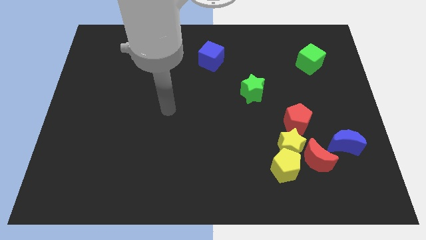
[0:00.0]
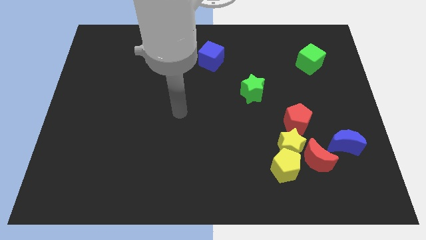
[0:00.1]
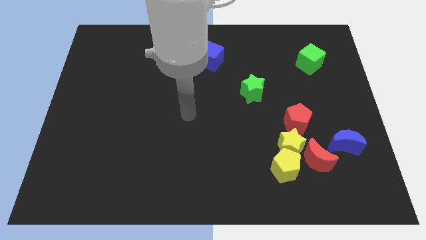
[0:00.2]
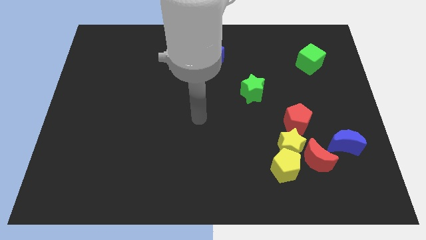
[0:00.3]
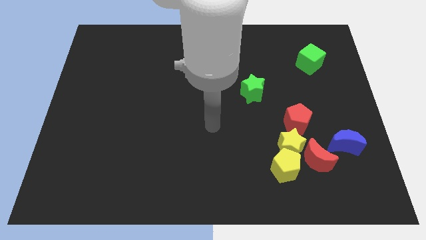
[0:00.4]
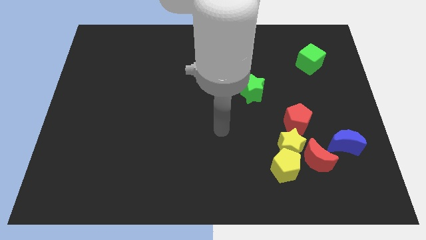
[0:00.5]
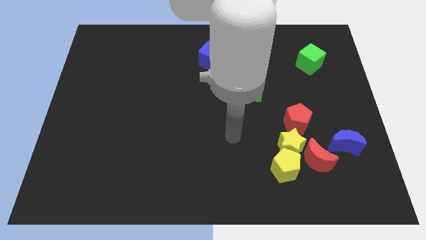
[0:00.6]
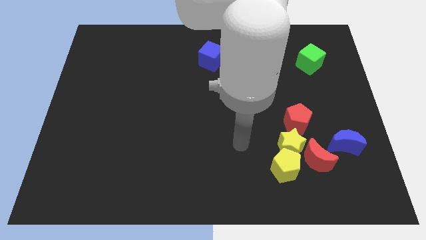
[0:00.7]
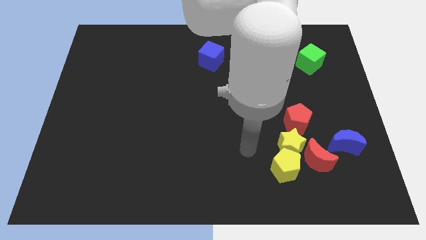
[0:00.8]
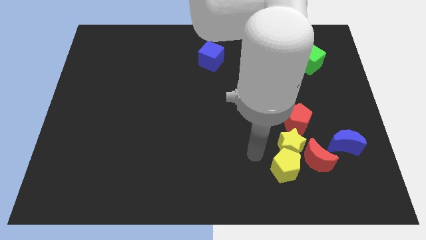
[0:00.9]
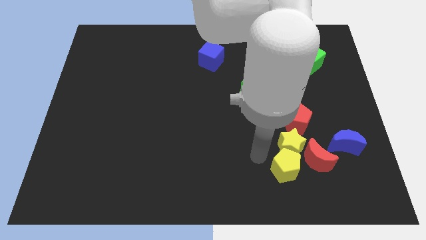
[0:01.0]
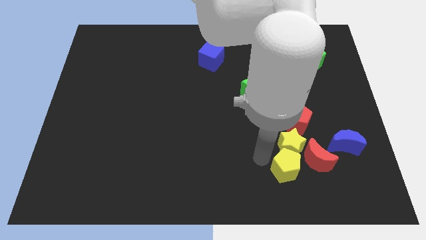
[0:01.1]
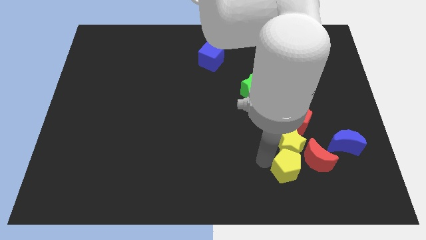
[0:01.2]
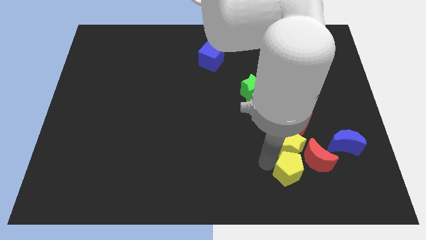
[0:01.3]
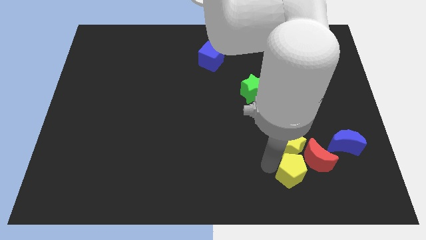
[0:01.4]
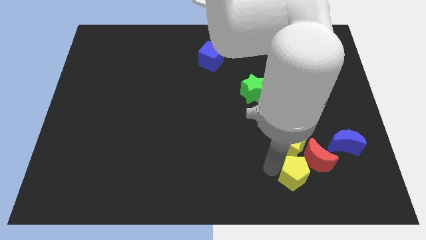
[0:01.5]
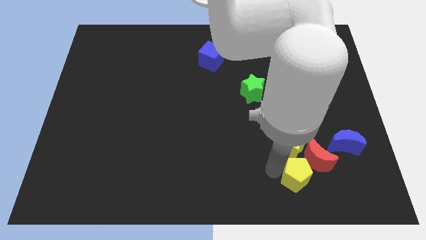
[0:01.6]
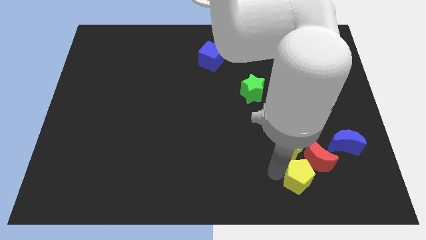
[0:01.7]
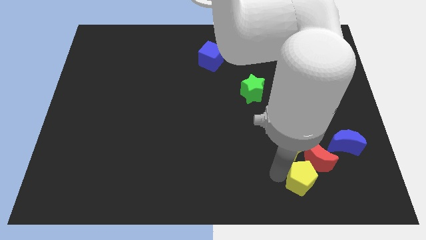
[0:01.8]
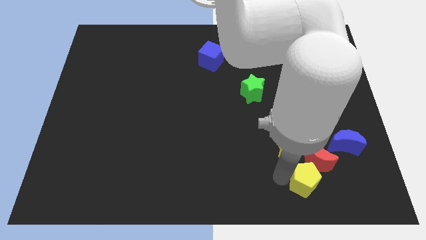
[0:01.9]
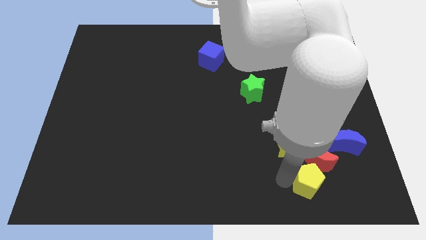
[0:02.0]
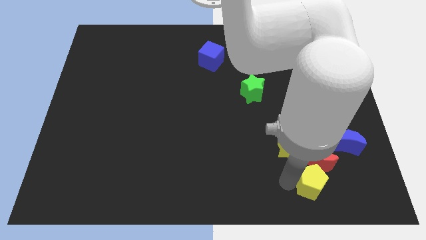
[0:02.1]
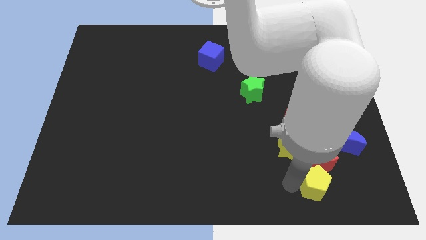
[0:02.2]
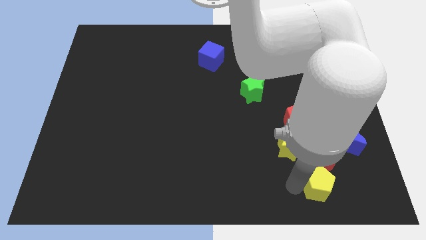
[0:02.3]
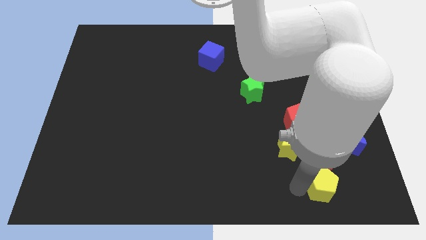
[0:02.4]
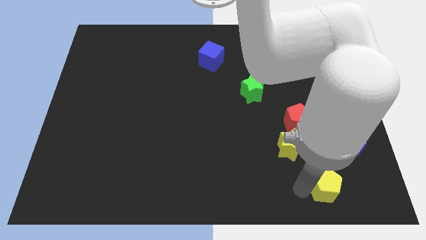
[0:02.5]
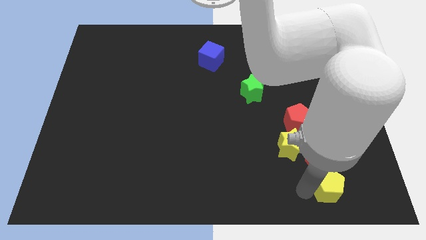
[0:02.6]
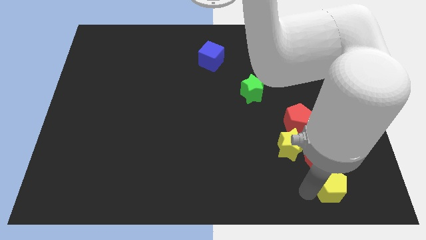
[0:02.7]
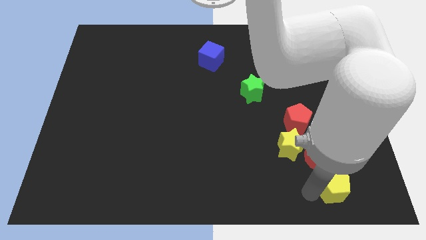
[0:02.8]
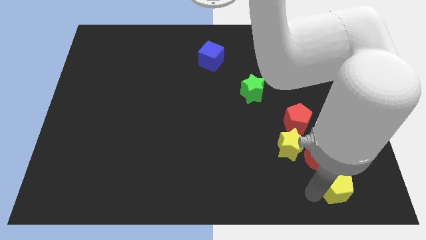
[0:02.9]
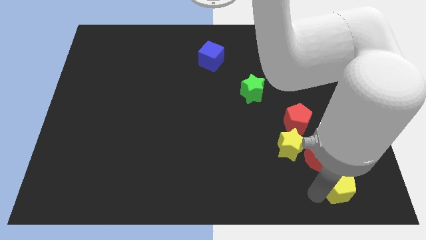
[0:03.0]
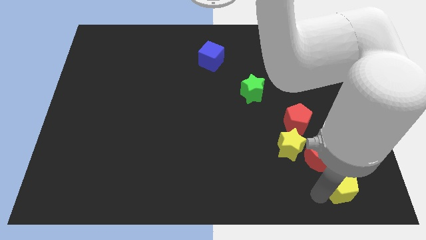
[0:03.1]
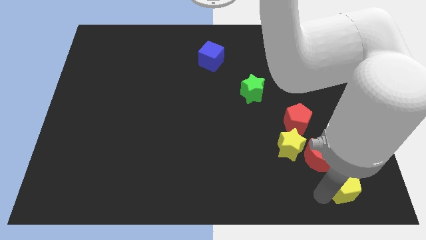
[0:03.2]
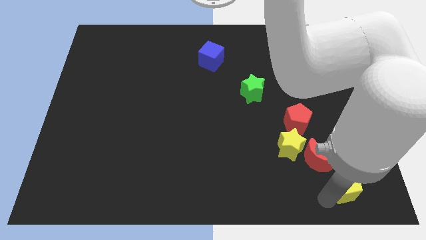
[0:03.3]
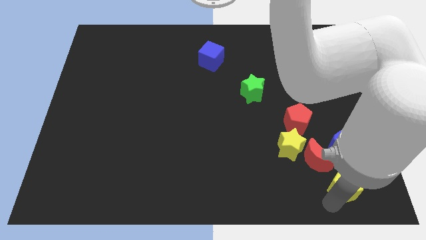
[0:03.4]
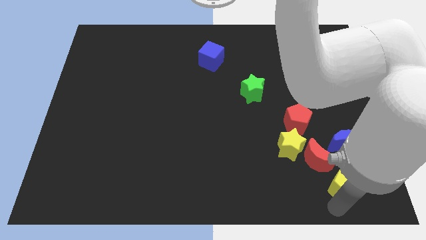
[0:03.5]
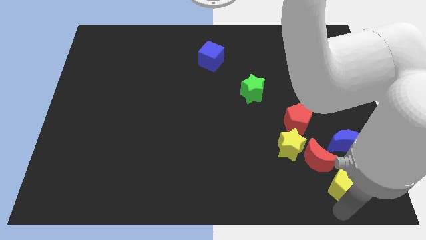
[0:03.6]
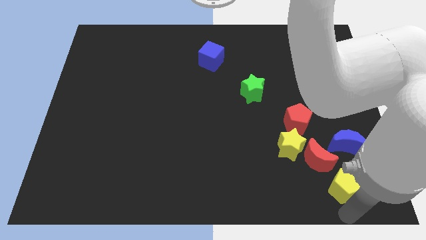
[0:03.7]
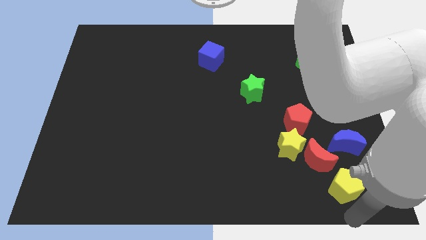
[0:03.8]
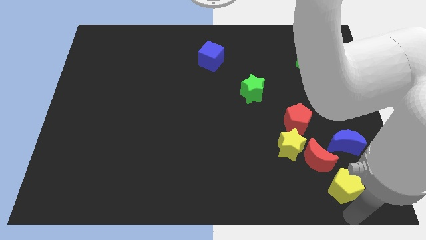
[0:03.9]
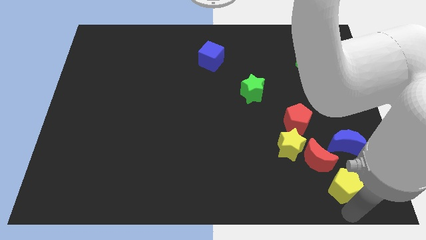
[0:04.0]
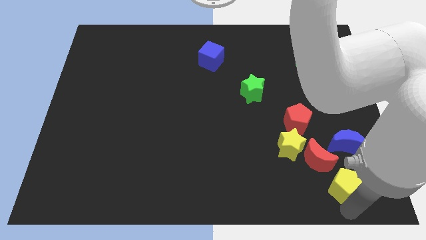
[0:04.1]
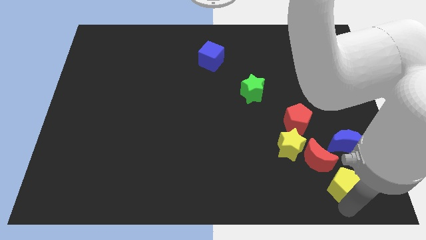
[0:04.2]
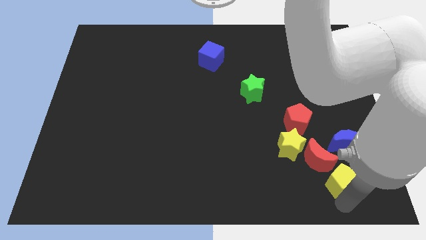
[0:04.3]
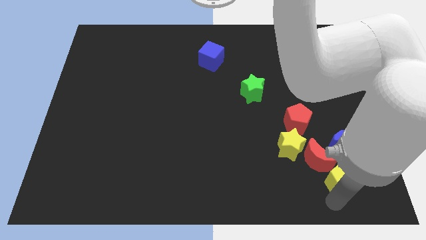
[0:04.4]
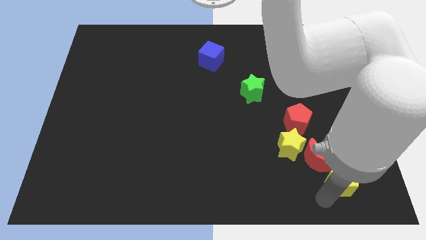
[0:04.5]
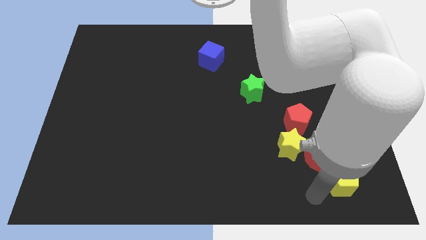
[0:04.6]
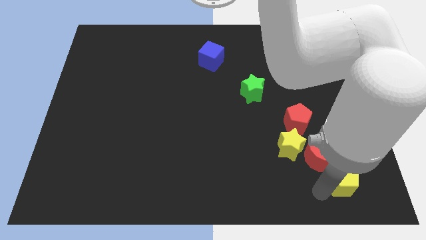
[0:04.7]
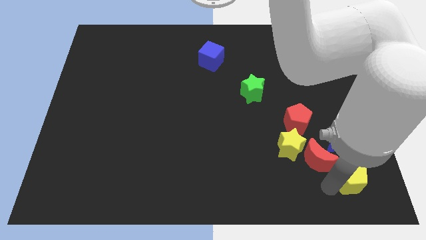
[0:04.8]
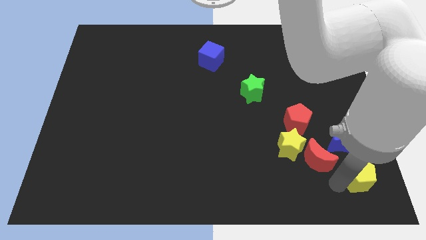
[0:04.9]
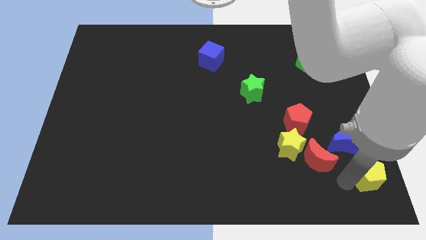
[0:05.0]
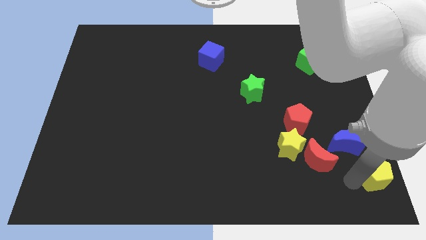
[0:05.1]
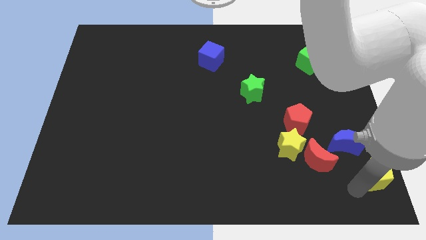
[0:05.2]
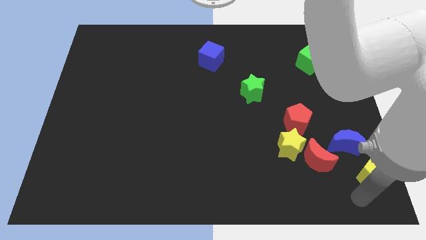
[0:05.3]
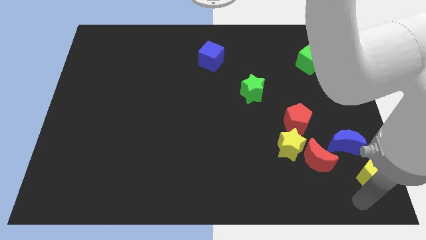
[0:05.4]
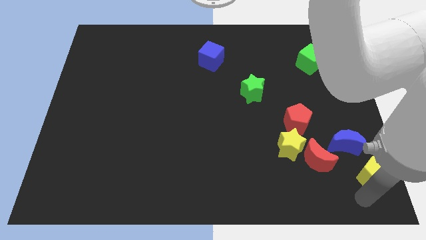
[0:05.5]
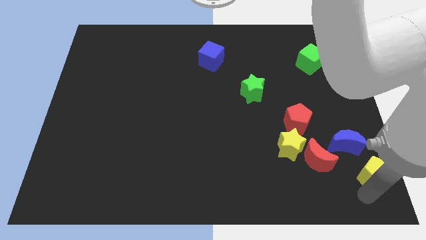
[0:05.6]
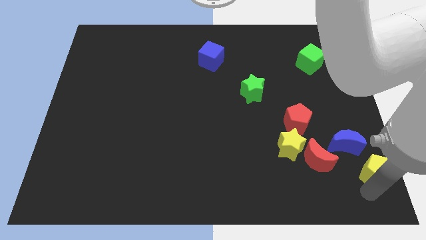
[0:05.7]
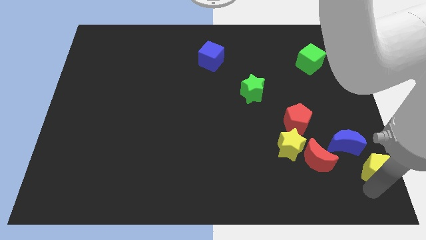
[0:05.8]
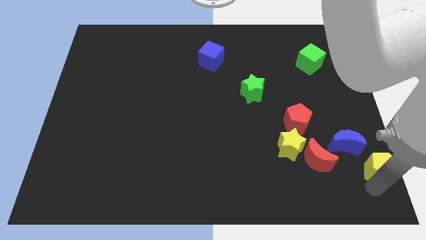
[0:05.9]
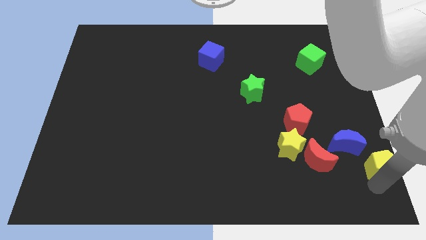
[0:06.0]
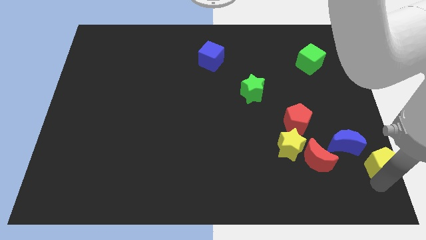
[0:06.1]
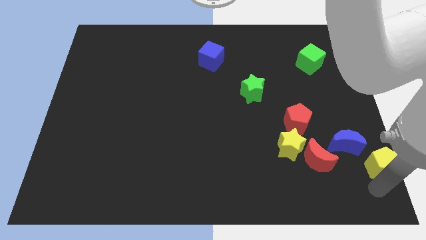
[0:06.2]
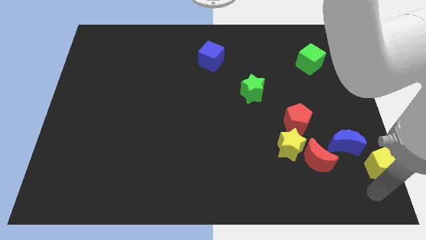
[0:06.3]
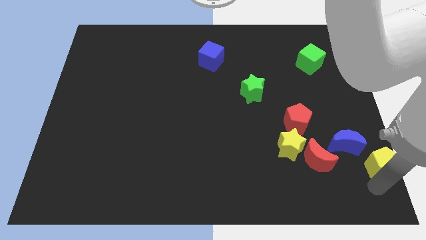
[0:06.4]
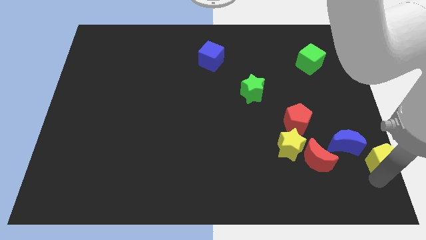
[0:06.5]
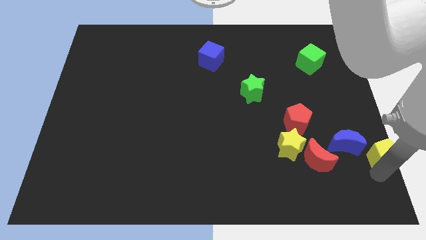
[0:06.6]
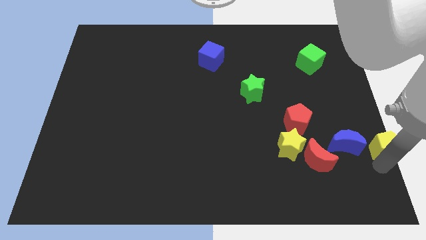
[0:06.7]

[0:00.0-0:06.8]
put the yellow pentagon to the right side of the board
